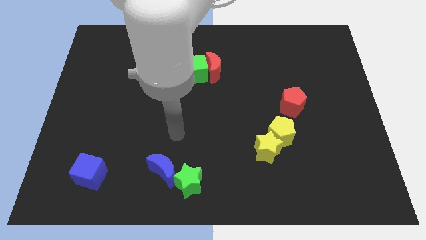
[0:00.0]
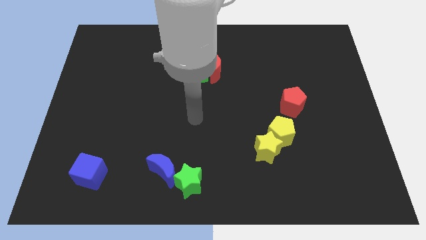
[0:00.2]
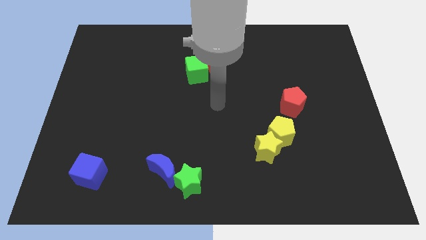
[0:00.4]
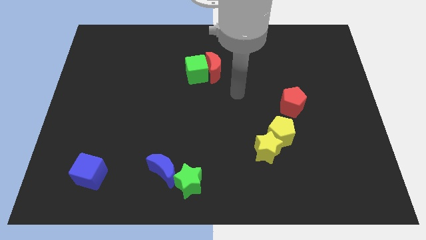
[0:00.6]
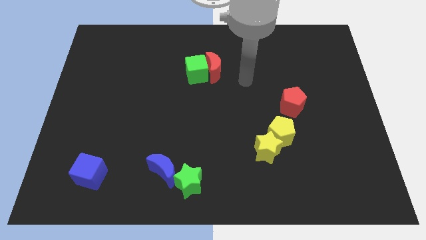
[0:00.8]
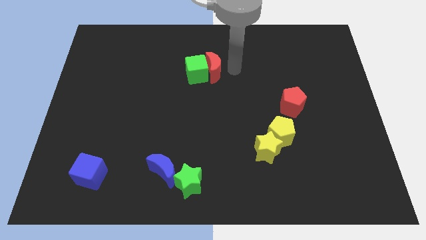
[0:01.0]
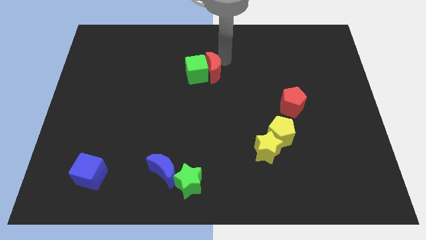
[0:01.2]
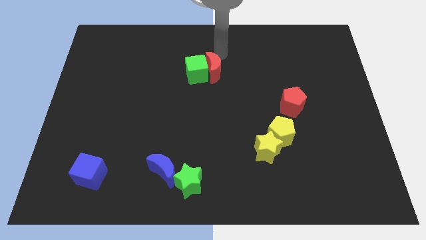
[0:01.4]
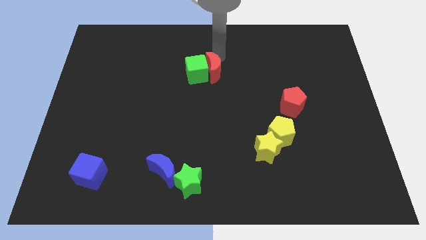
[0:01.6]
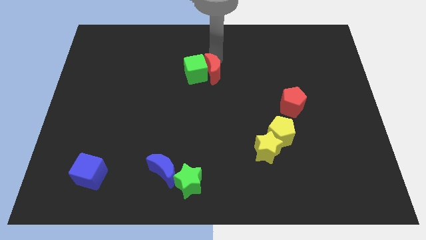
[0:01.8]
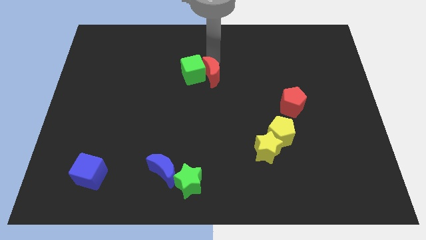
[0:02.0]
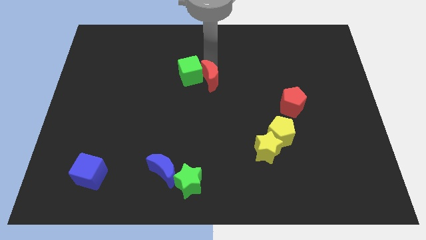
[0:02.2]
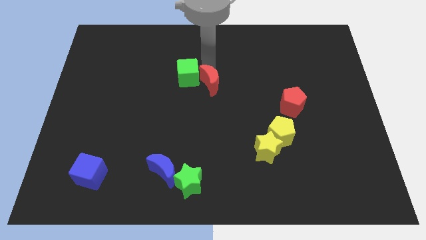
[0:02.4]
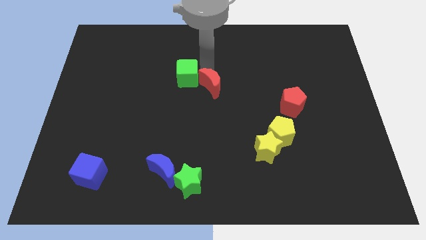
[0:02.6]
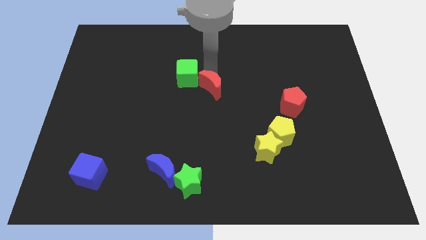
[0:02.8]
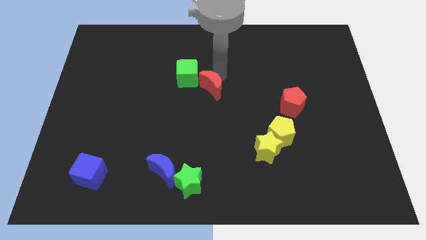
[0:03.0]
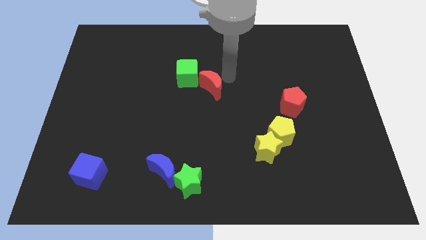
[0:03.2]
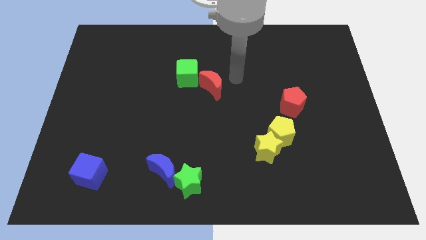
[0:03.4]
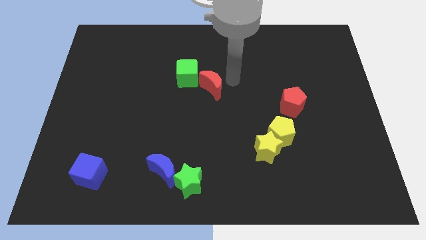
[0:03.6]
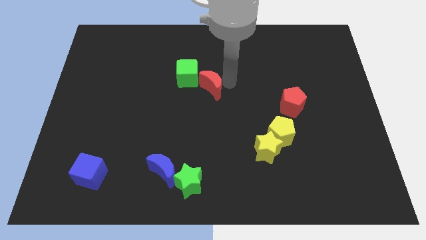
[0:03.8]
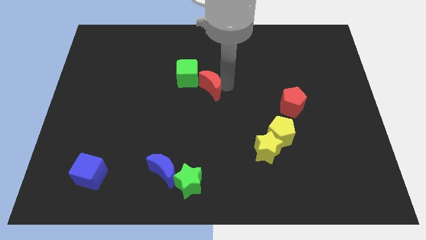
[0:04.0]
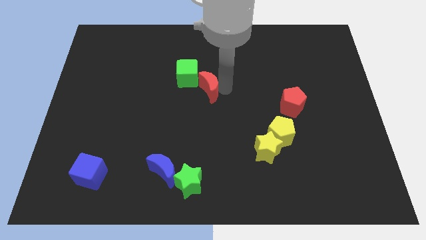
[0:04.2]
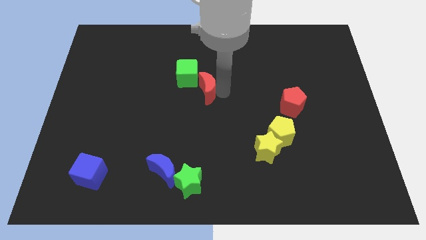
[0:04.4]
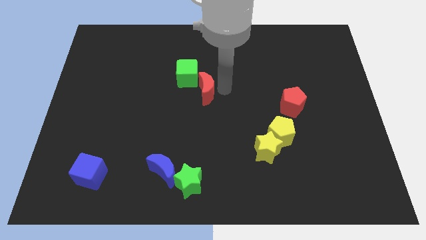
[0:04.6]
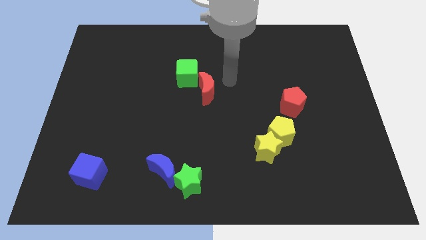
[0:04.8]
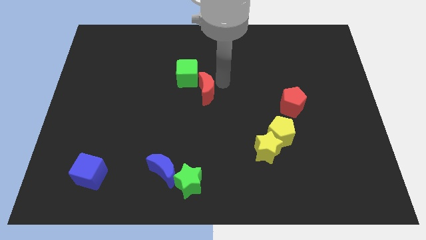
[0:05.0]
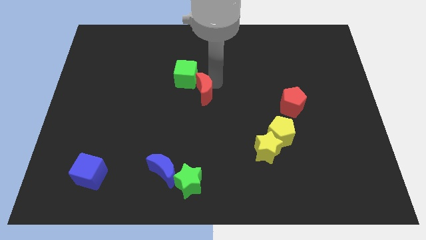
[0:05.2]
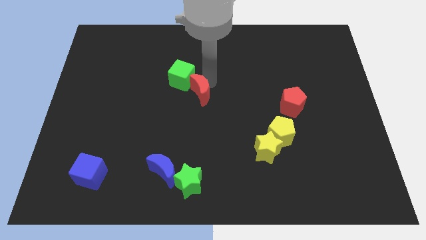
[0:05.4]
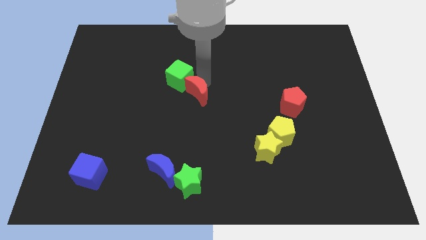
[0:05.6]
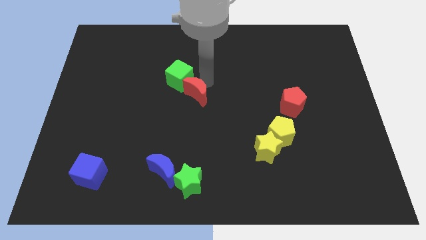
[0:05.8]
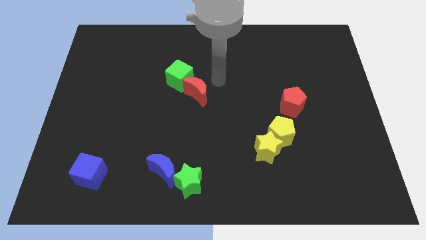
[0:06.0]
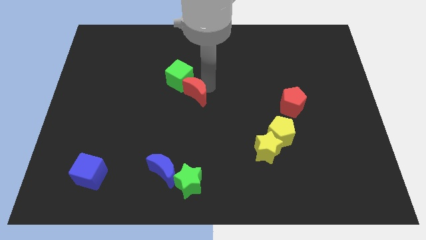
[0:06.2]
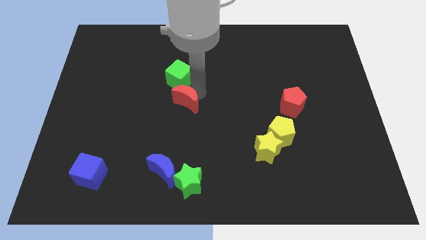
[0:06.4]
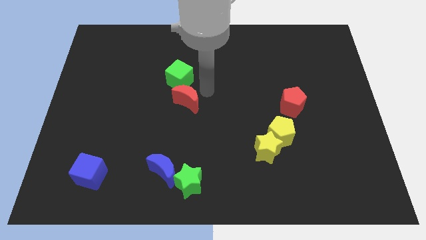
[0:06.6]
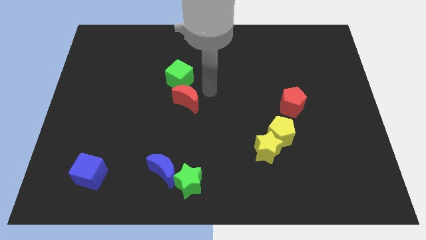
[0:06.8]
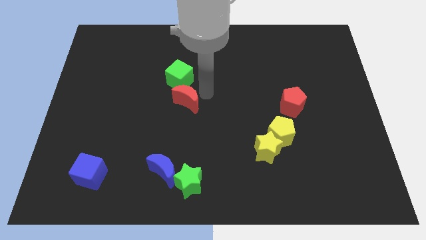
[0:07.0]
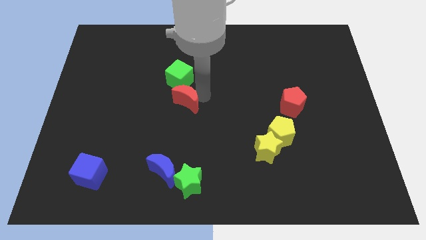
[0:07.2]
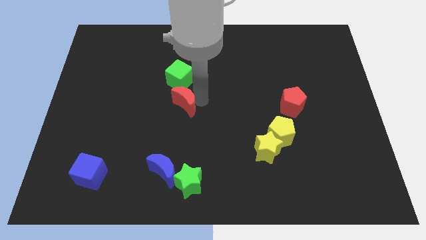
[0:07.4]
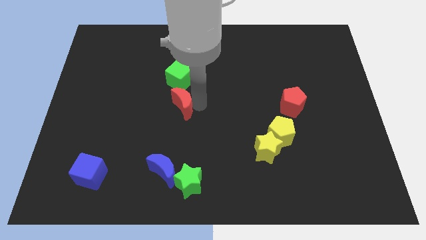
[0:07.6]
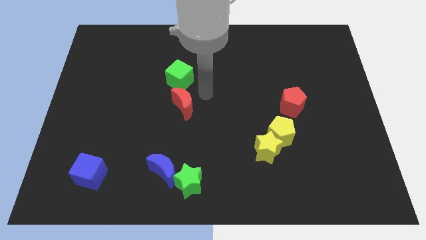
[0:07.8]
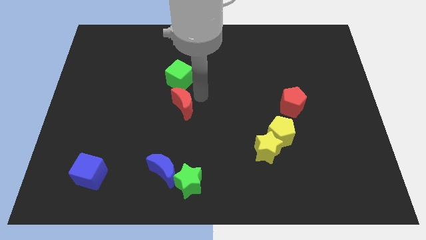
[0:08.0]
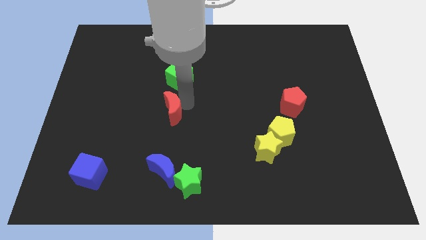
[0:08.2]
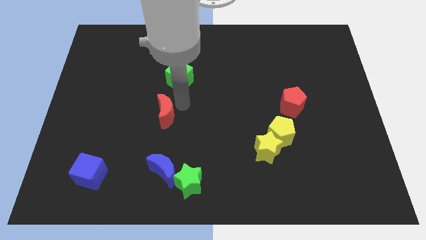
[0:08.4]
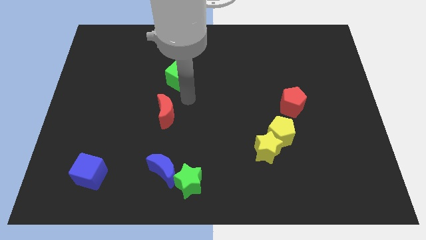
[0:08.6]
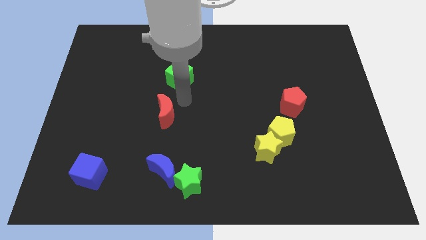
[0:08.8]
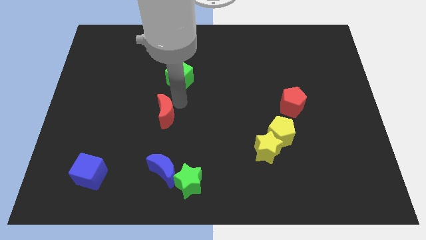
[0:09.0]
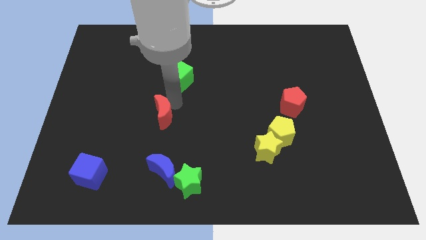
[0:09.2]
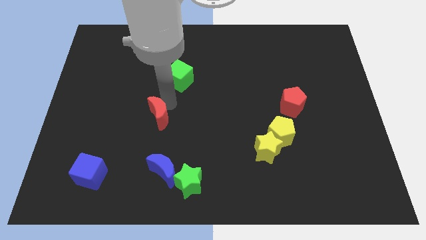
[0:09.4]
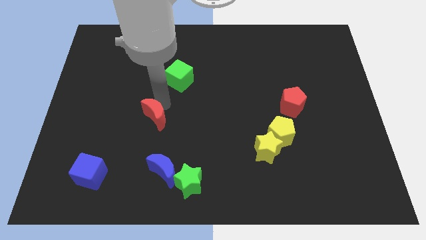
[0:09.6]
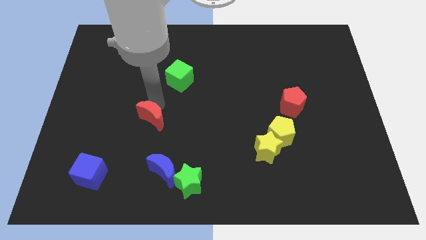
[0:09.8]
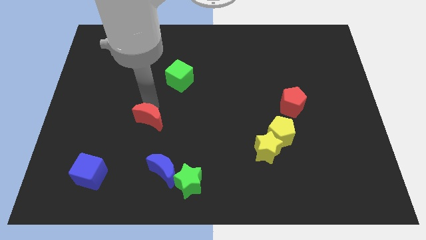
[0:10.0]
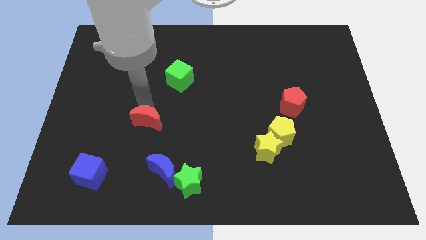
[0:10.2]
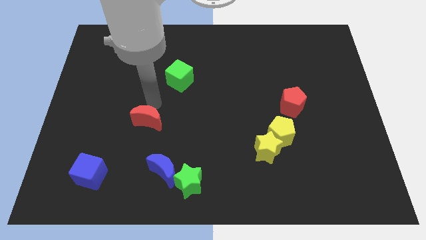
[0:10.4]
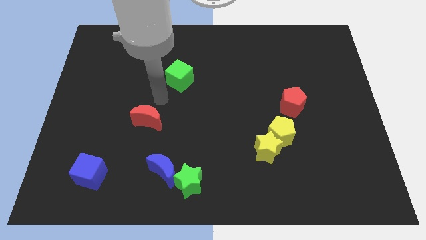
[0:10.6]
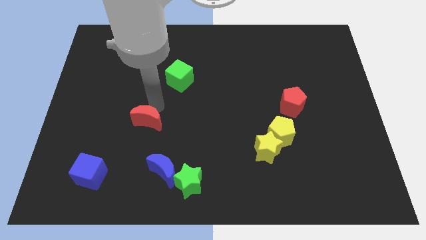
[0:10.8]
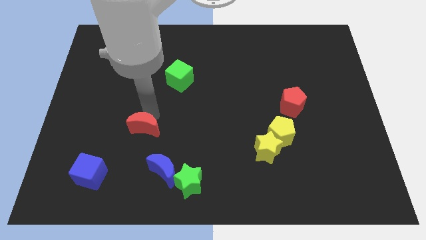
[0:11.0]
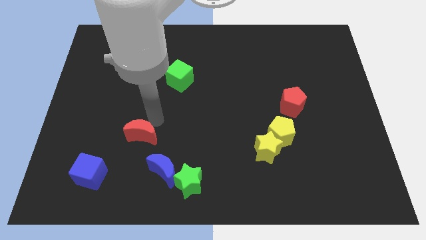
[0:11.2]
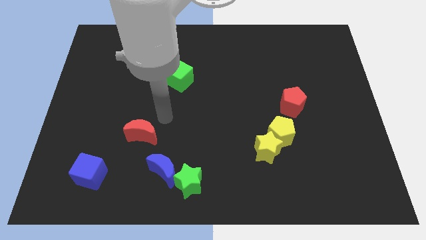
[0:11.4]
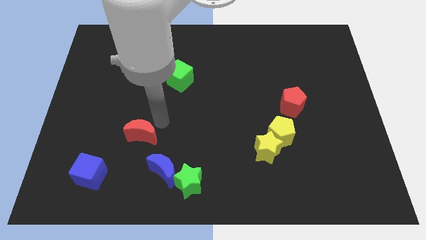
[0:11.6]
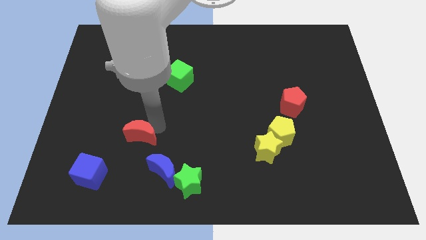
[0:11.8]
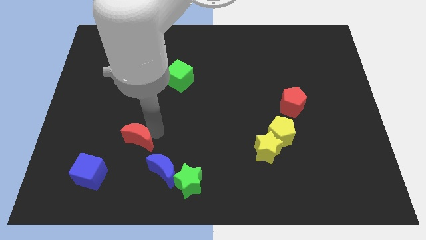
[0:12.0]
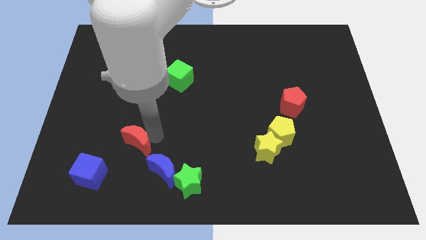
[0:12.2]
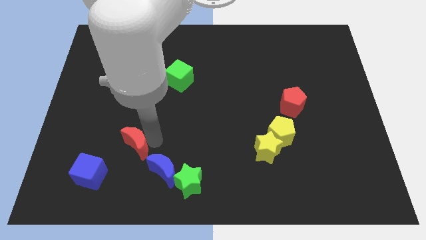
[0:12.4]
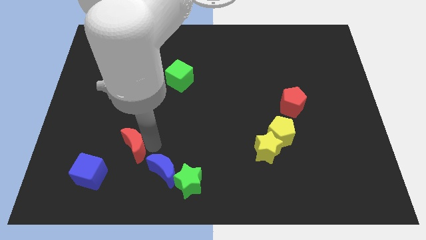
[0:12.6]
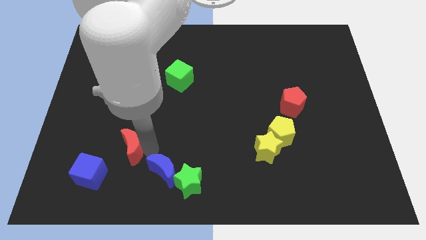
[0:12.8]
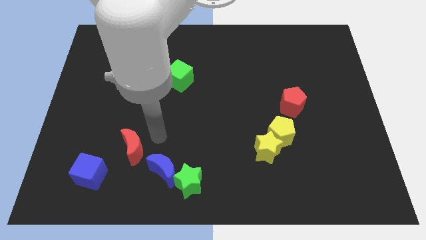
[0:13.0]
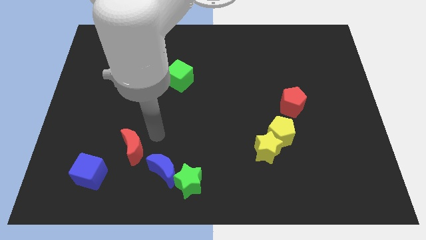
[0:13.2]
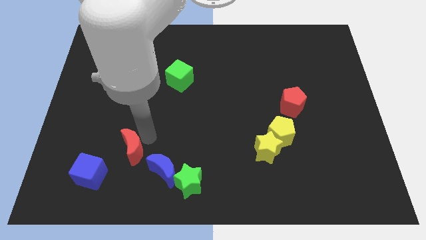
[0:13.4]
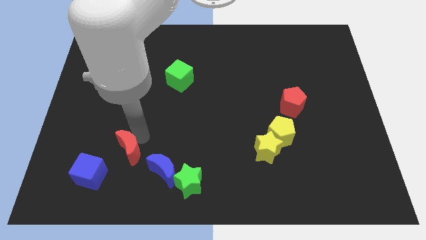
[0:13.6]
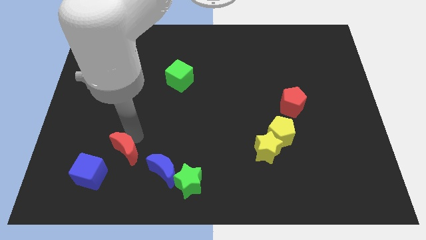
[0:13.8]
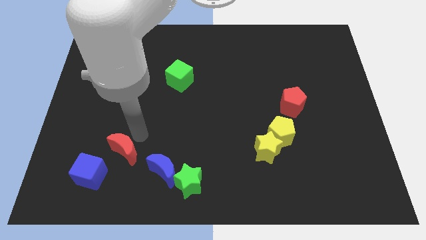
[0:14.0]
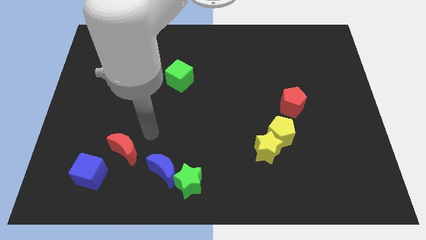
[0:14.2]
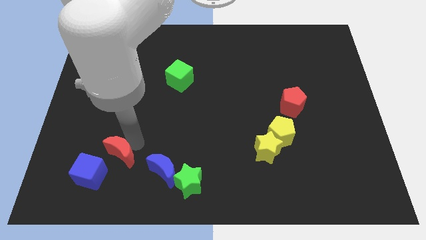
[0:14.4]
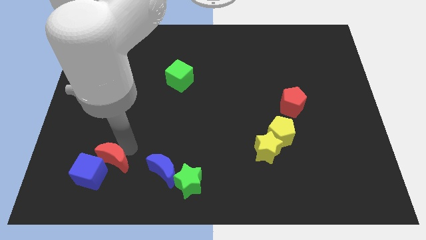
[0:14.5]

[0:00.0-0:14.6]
slide the red moon to the blue cube

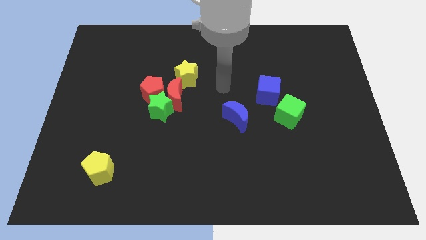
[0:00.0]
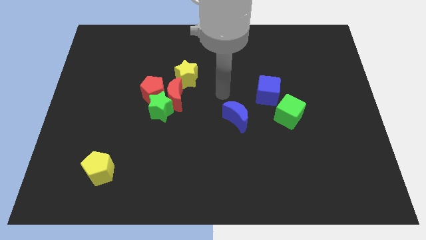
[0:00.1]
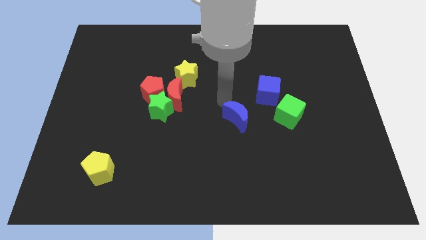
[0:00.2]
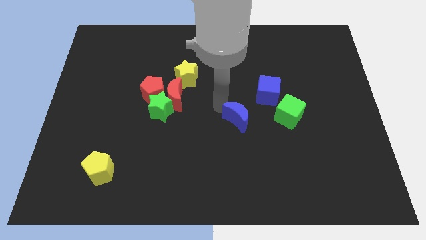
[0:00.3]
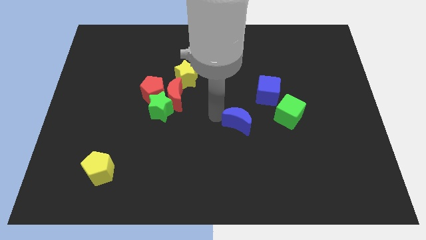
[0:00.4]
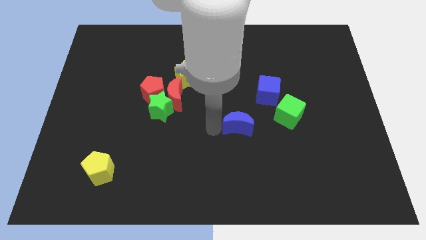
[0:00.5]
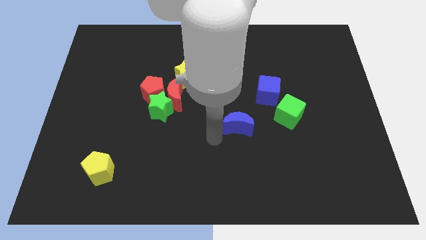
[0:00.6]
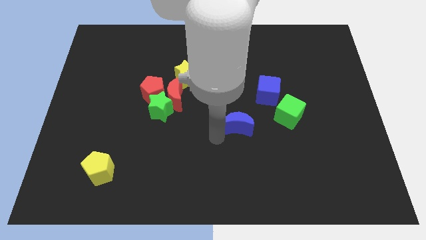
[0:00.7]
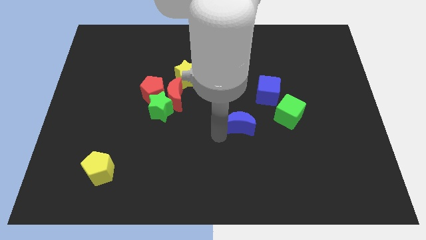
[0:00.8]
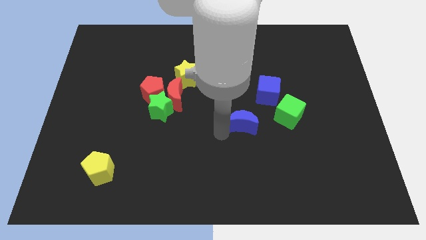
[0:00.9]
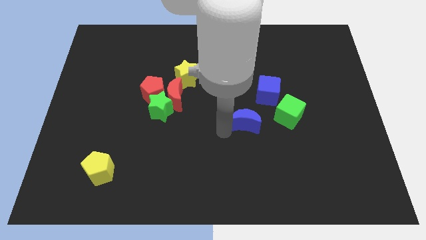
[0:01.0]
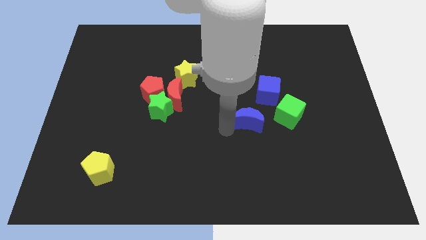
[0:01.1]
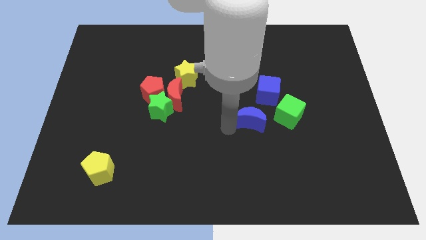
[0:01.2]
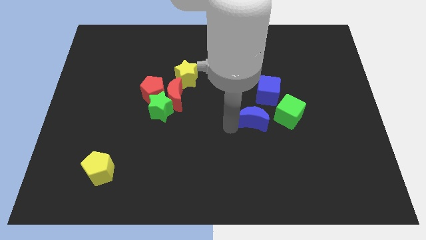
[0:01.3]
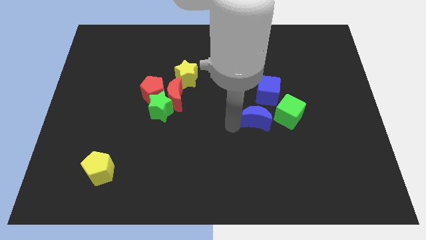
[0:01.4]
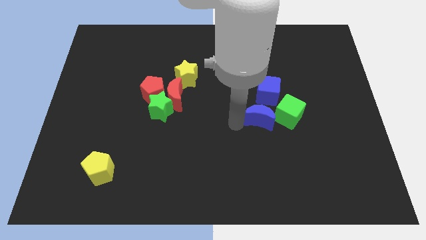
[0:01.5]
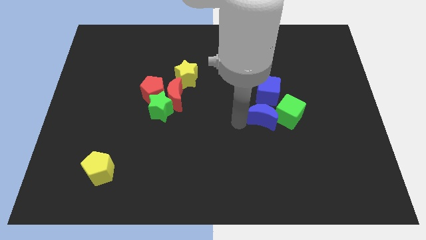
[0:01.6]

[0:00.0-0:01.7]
slide the blue moon next to the green cube
